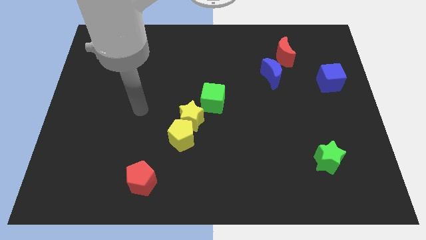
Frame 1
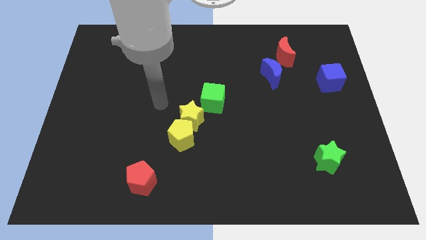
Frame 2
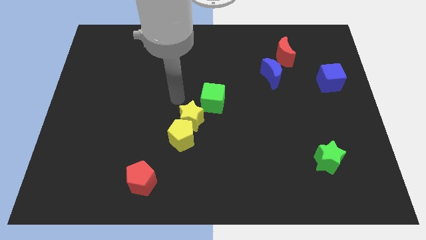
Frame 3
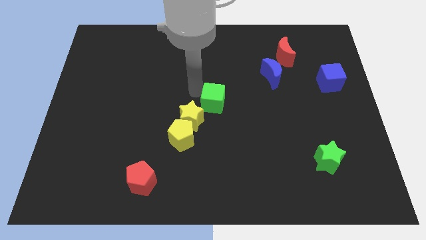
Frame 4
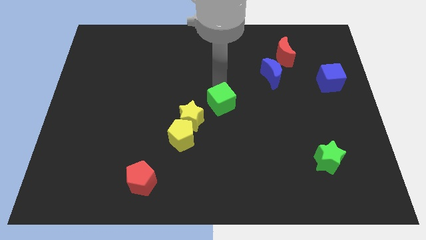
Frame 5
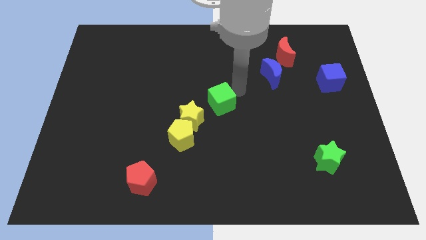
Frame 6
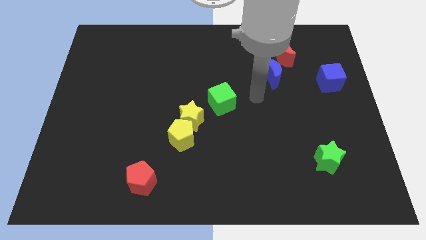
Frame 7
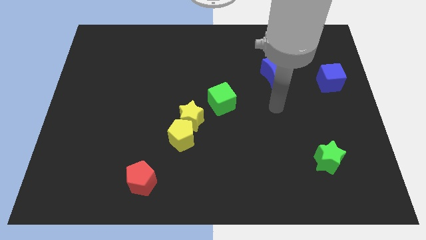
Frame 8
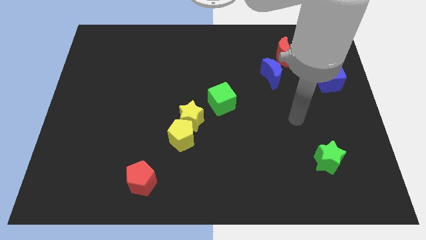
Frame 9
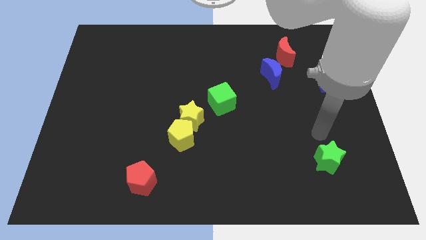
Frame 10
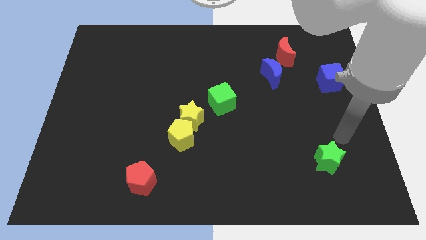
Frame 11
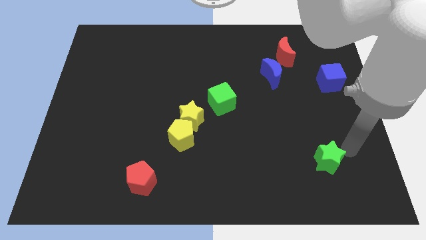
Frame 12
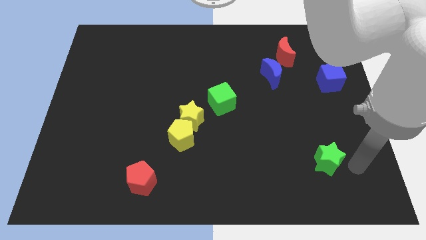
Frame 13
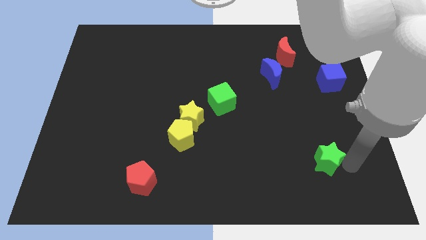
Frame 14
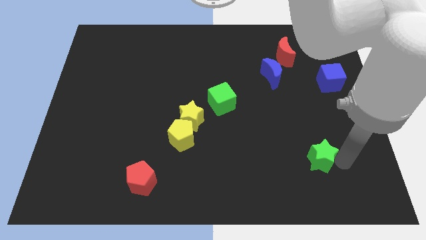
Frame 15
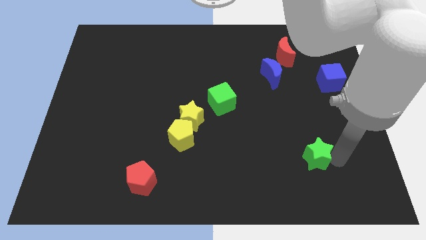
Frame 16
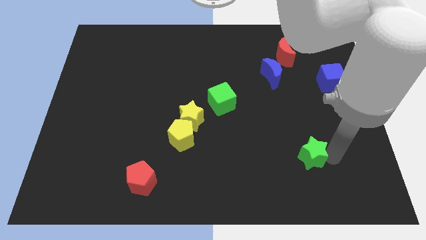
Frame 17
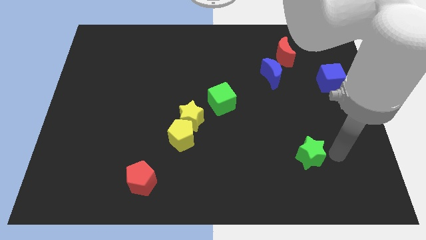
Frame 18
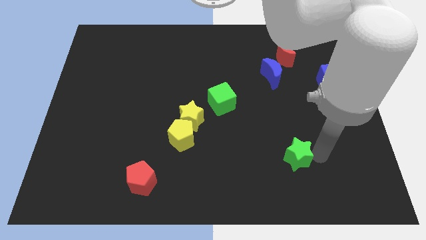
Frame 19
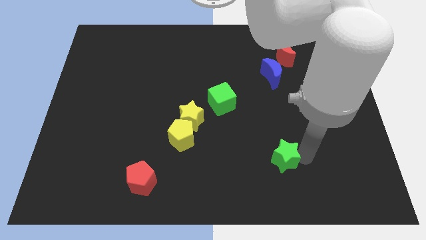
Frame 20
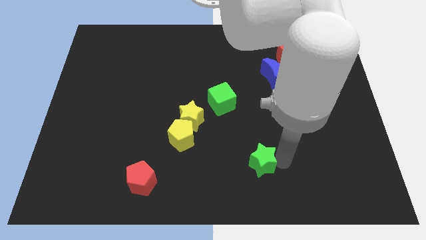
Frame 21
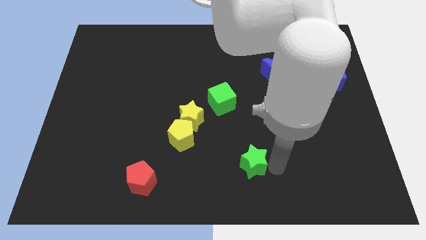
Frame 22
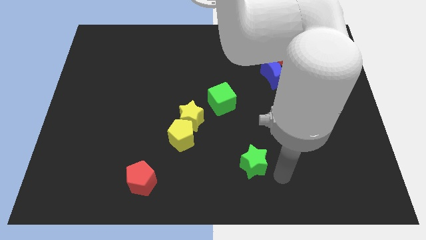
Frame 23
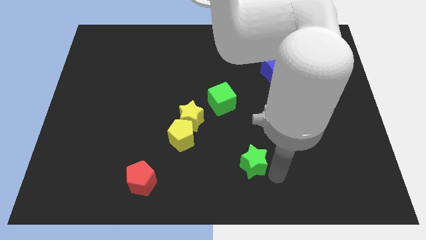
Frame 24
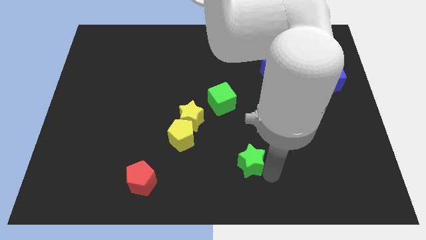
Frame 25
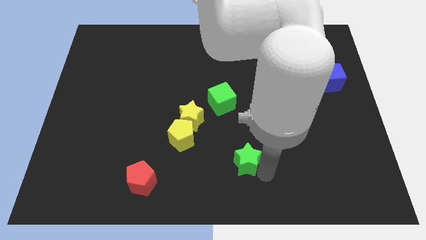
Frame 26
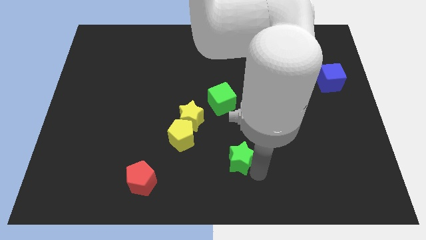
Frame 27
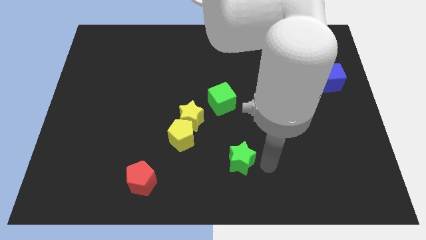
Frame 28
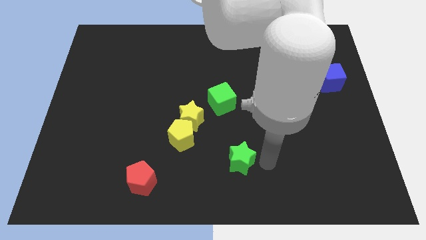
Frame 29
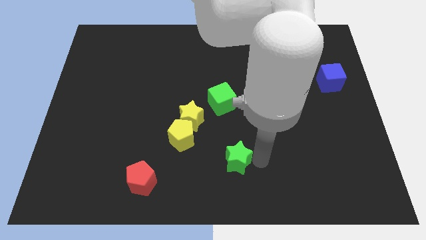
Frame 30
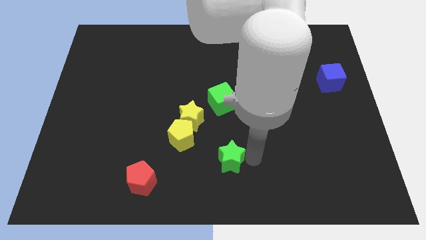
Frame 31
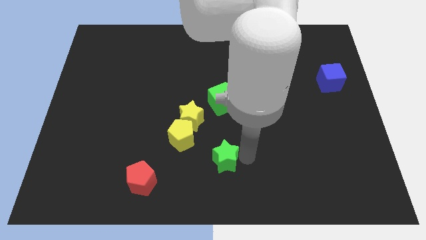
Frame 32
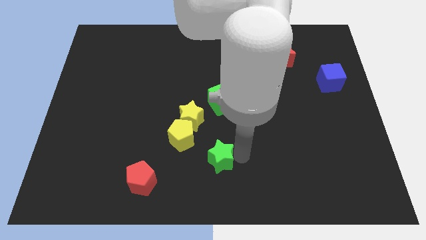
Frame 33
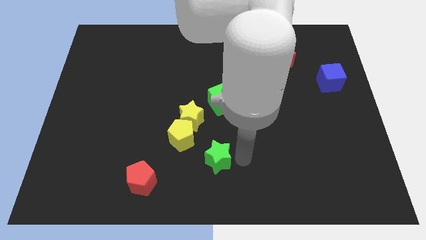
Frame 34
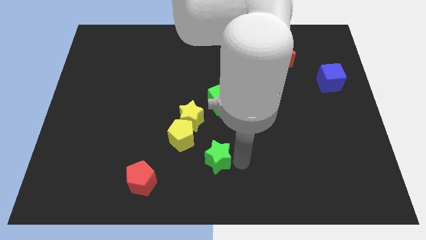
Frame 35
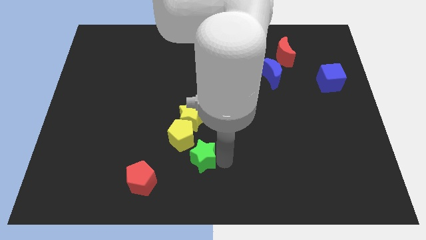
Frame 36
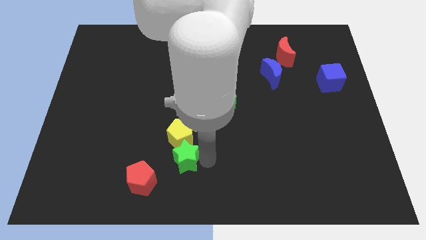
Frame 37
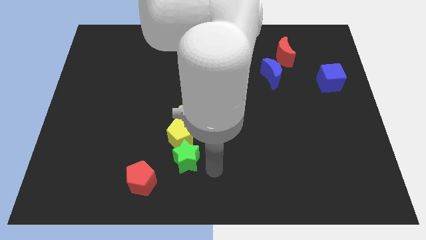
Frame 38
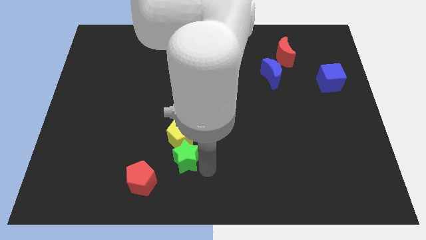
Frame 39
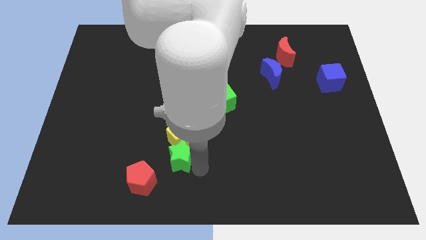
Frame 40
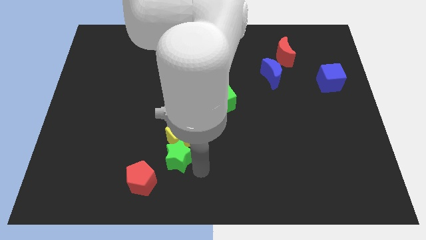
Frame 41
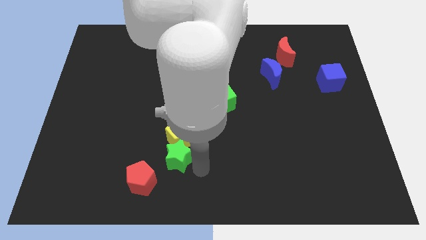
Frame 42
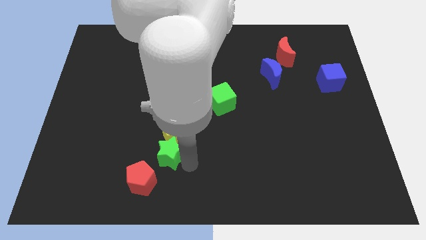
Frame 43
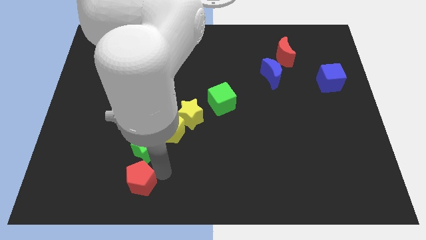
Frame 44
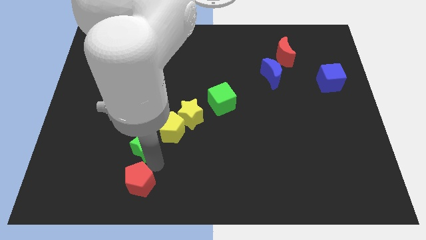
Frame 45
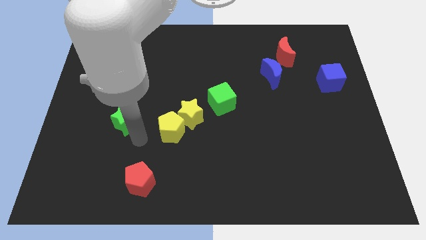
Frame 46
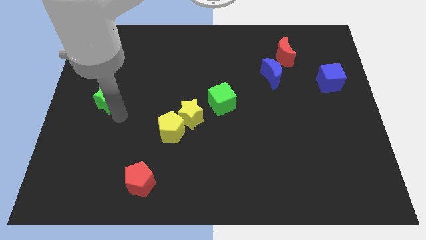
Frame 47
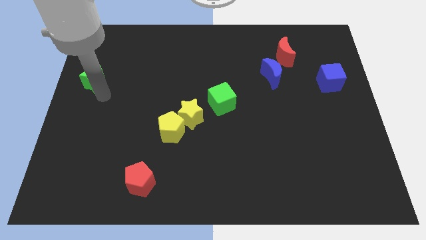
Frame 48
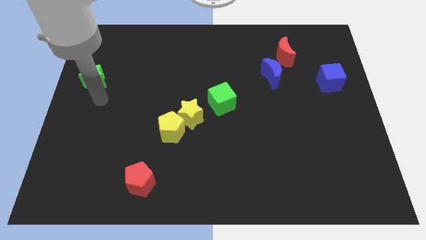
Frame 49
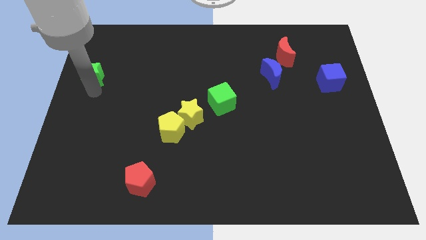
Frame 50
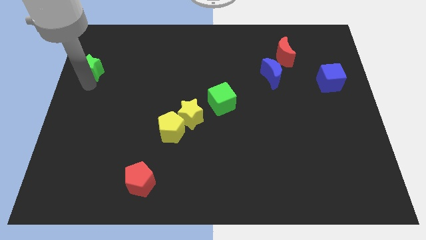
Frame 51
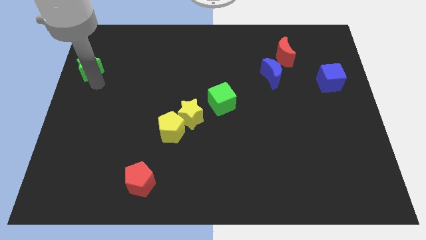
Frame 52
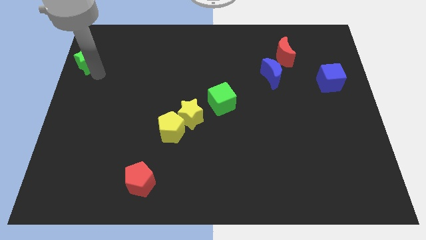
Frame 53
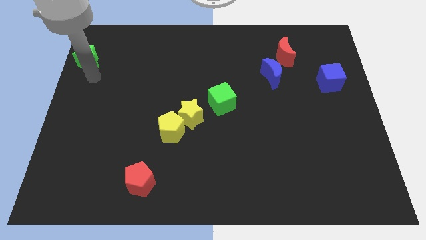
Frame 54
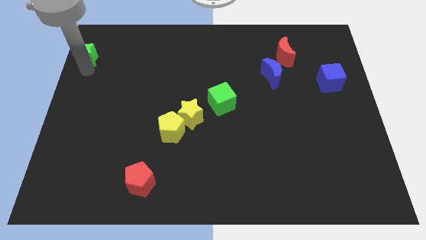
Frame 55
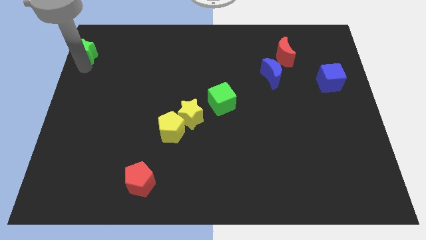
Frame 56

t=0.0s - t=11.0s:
push the green star to the top left
